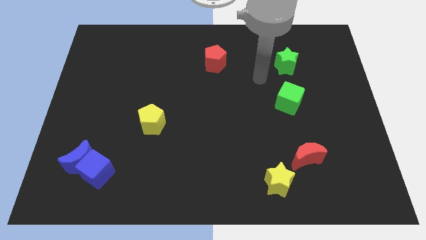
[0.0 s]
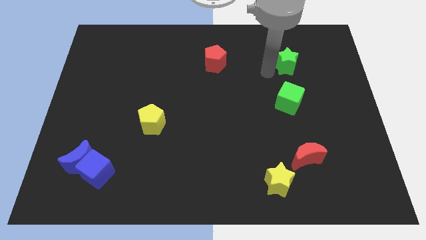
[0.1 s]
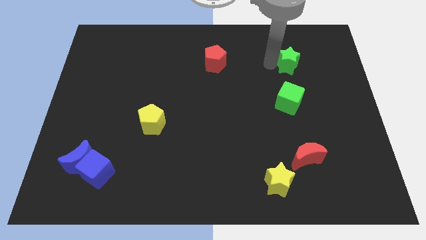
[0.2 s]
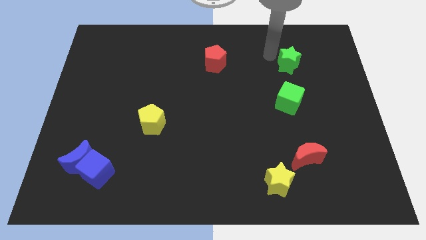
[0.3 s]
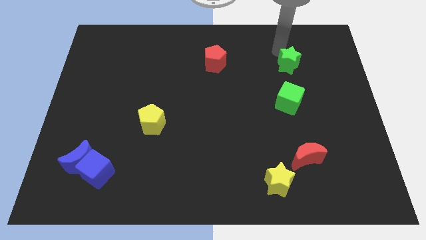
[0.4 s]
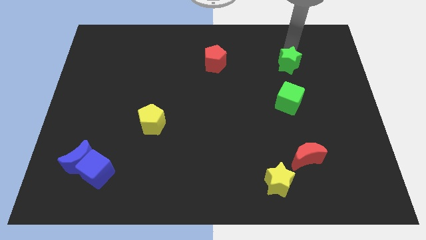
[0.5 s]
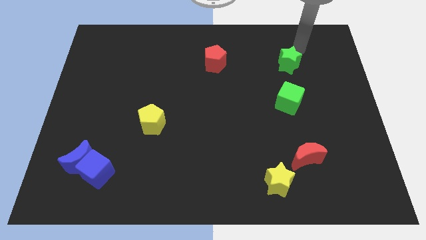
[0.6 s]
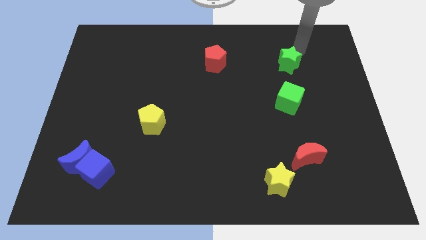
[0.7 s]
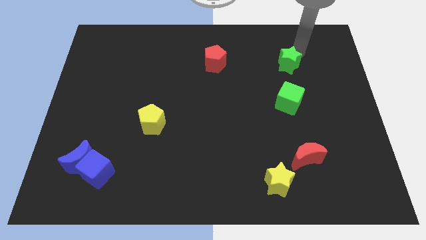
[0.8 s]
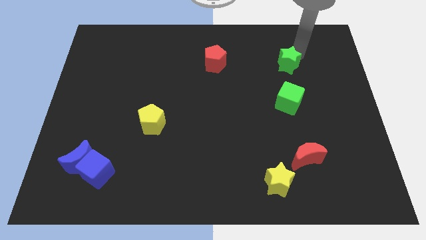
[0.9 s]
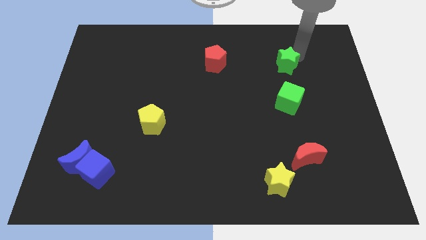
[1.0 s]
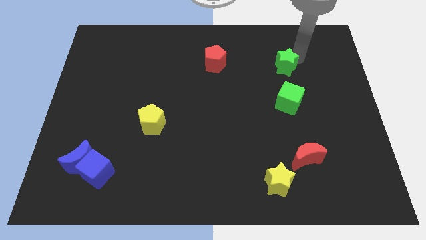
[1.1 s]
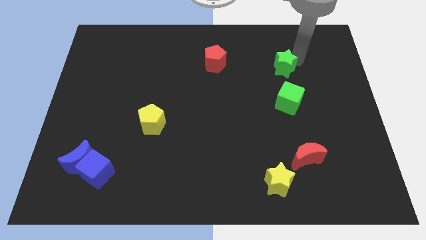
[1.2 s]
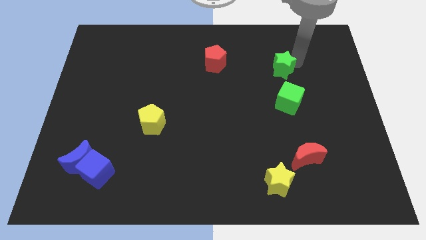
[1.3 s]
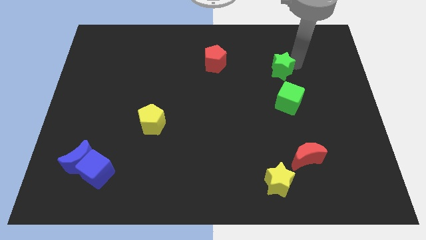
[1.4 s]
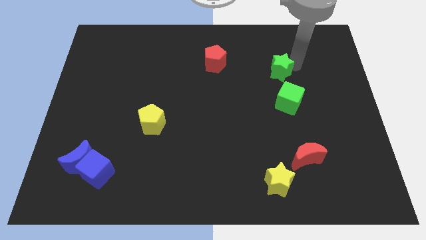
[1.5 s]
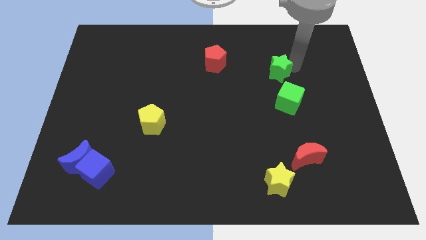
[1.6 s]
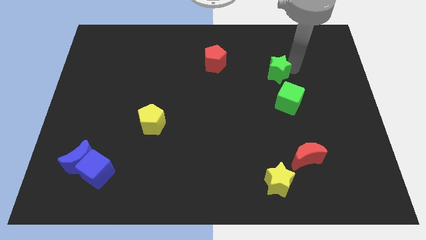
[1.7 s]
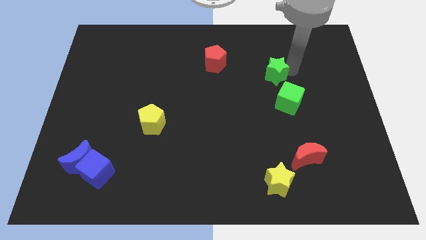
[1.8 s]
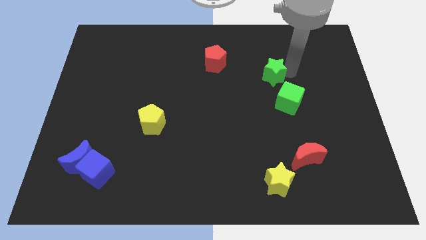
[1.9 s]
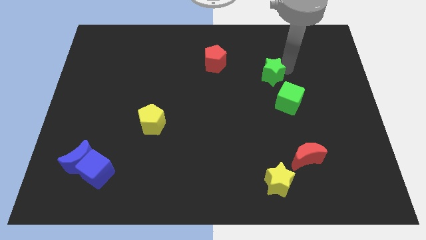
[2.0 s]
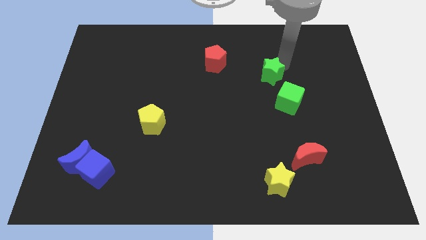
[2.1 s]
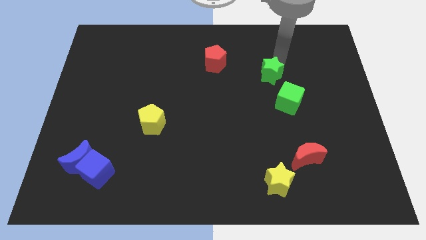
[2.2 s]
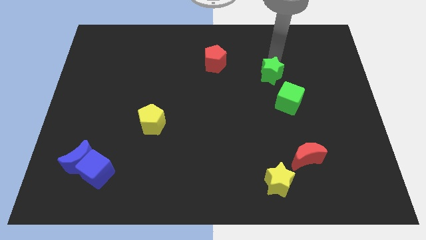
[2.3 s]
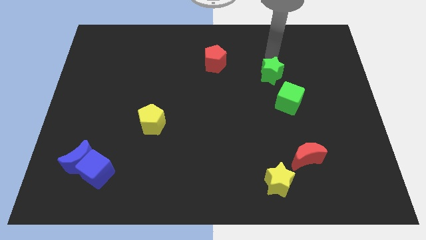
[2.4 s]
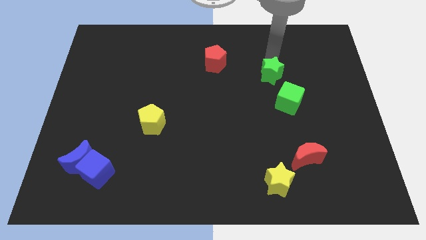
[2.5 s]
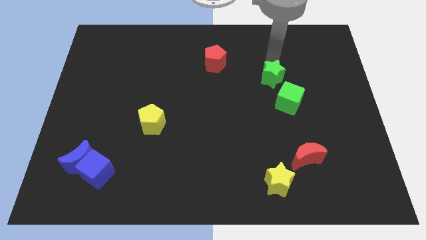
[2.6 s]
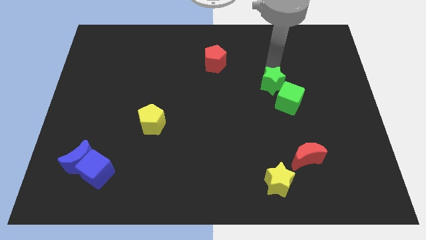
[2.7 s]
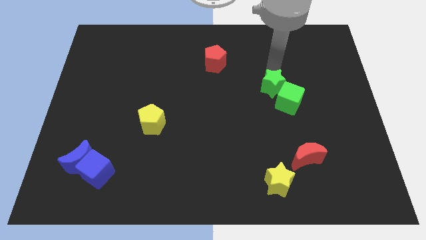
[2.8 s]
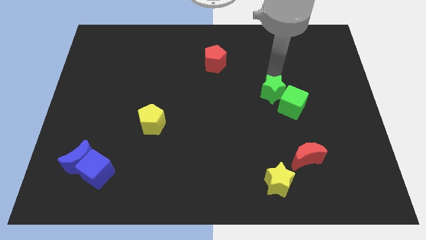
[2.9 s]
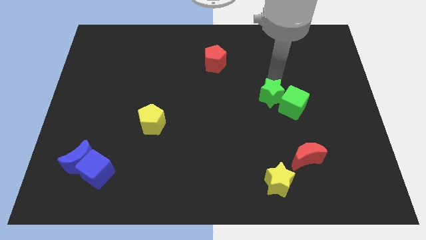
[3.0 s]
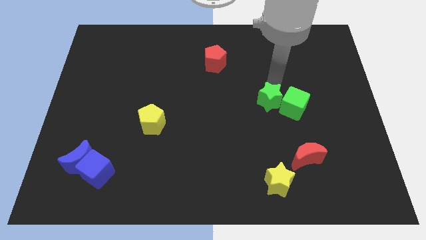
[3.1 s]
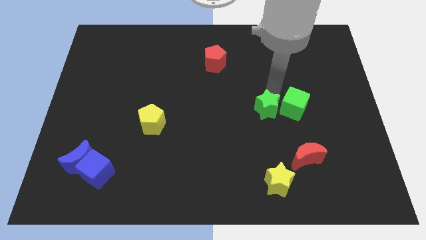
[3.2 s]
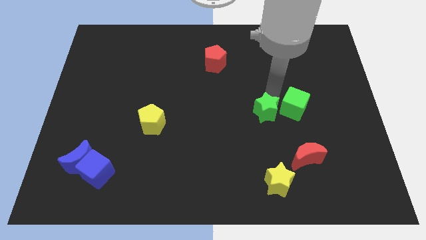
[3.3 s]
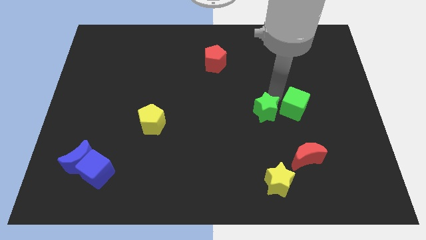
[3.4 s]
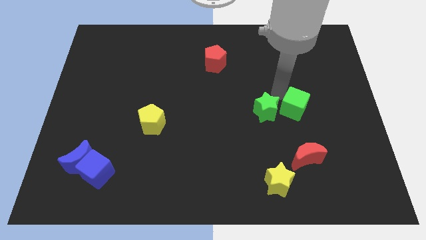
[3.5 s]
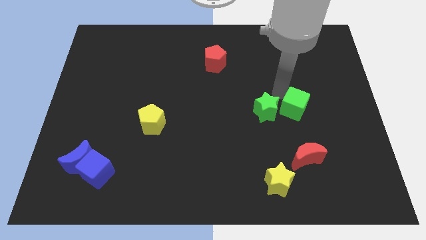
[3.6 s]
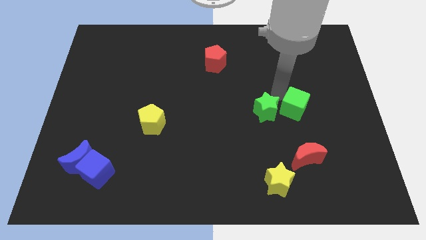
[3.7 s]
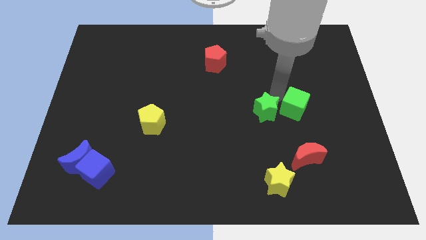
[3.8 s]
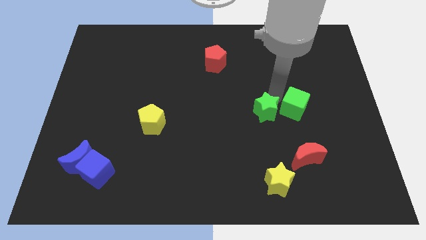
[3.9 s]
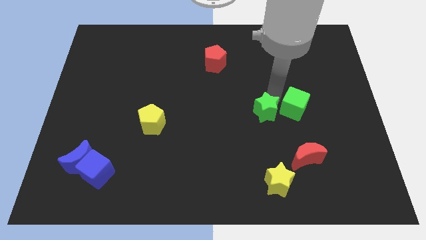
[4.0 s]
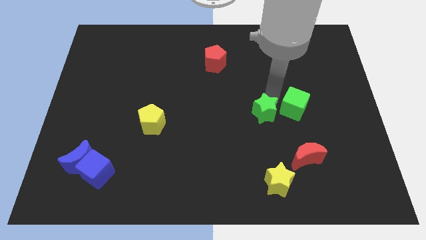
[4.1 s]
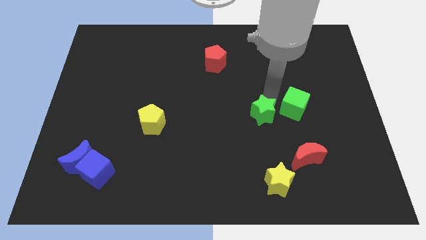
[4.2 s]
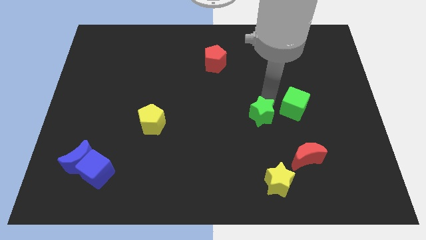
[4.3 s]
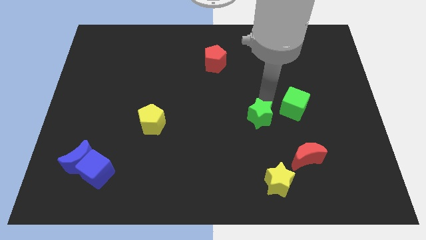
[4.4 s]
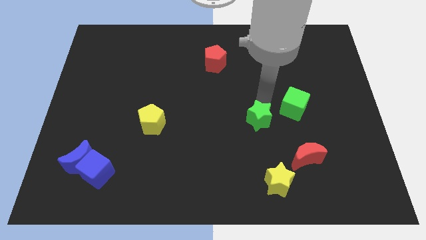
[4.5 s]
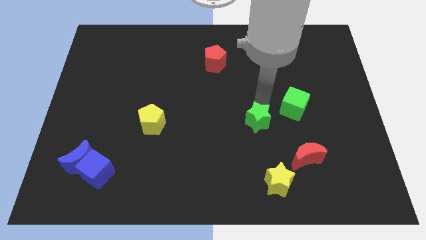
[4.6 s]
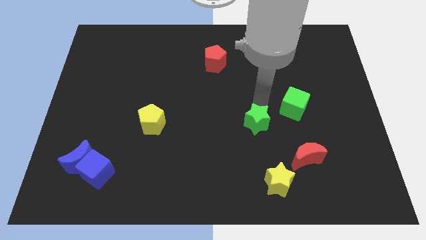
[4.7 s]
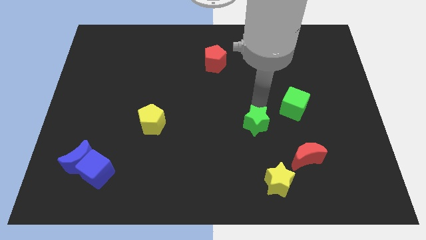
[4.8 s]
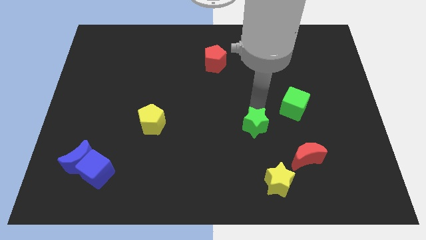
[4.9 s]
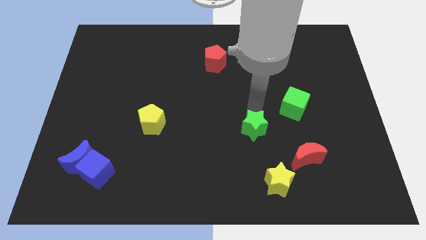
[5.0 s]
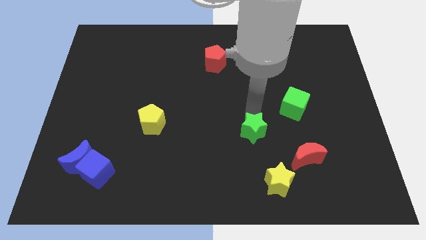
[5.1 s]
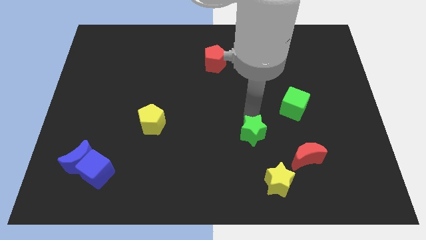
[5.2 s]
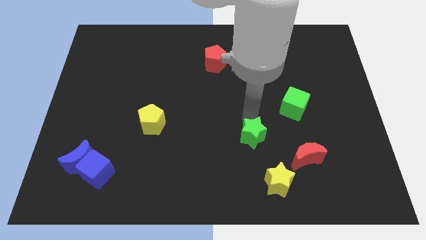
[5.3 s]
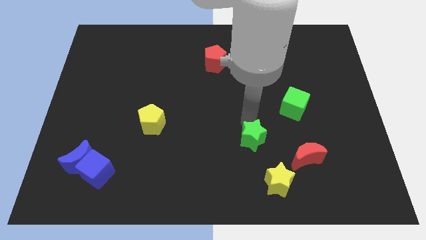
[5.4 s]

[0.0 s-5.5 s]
slide the green star just left of the red moon

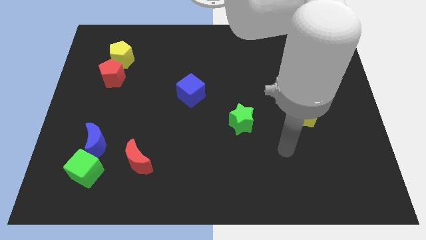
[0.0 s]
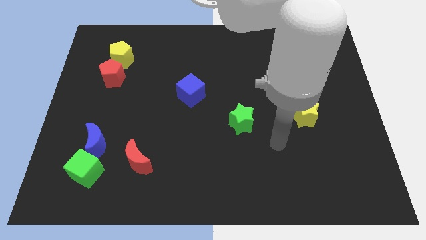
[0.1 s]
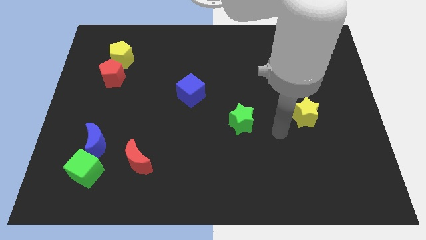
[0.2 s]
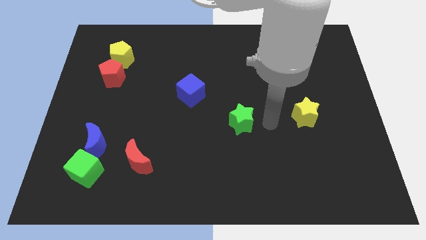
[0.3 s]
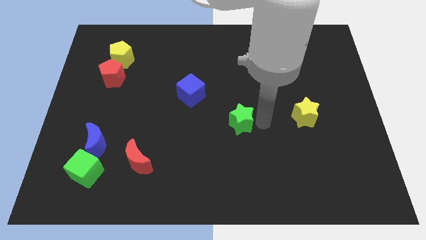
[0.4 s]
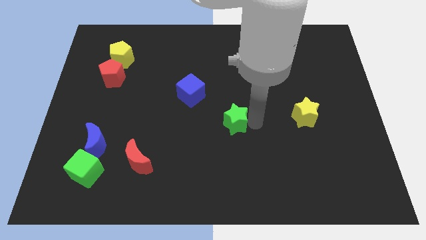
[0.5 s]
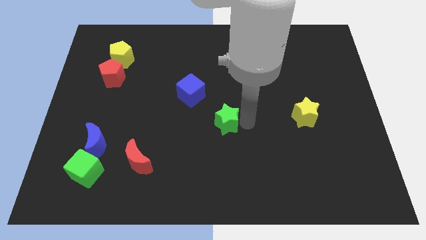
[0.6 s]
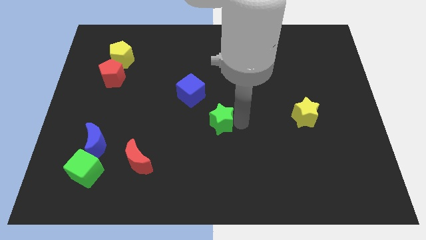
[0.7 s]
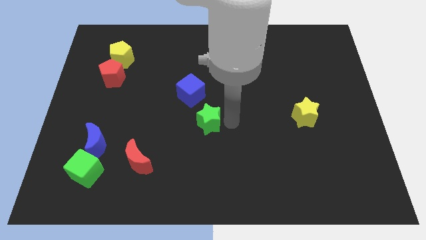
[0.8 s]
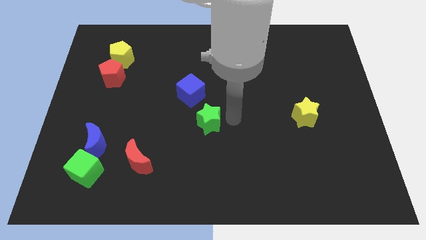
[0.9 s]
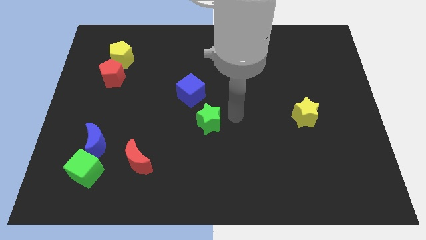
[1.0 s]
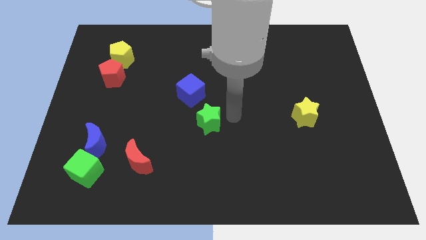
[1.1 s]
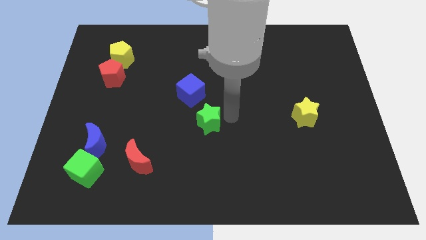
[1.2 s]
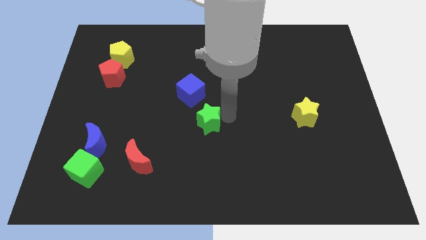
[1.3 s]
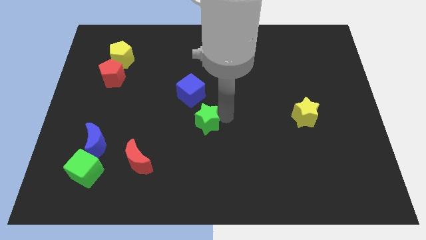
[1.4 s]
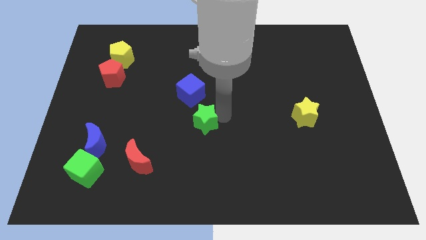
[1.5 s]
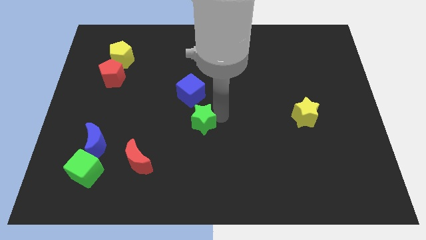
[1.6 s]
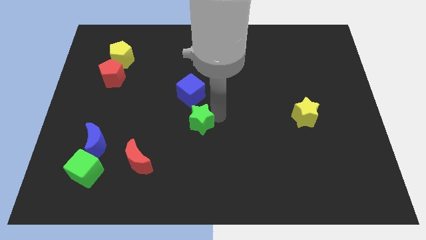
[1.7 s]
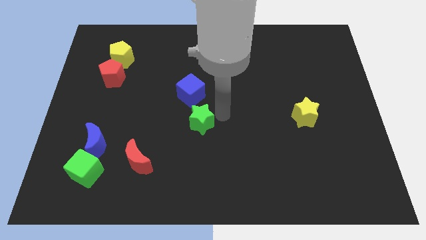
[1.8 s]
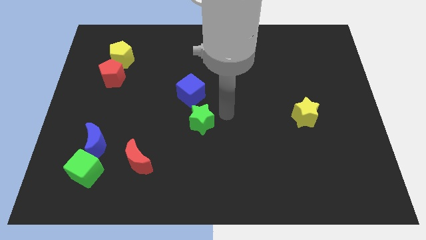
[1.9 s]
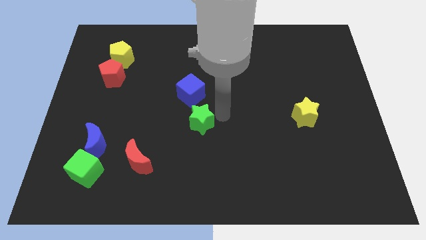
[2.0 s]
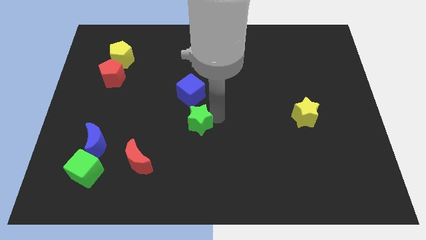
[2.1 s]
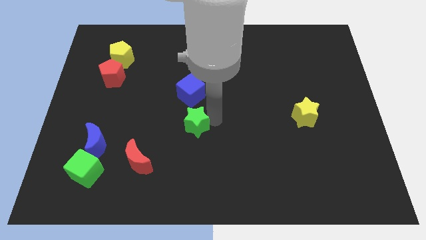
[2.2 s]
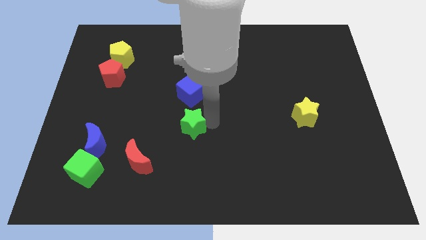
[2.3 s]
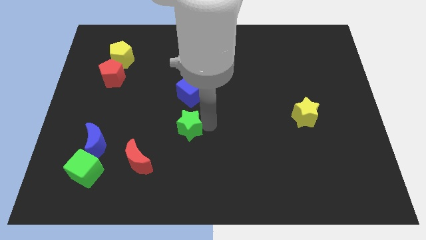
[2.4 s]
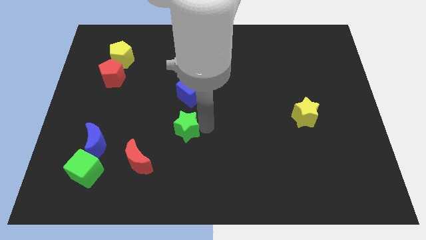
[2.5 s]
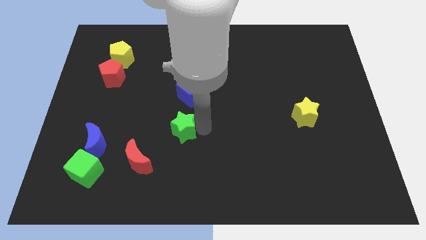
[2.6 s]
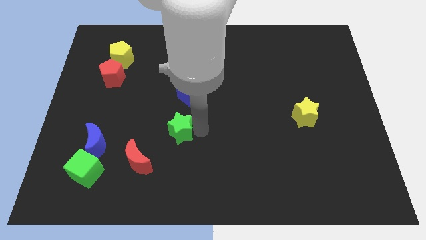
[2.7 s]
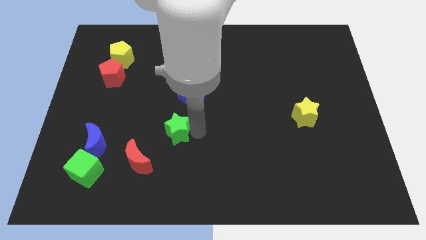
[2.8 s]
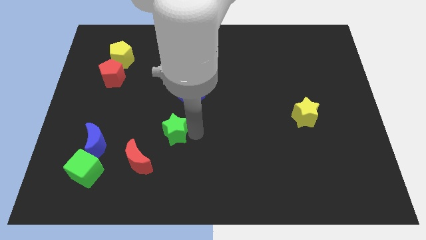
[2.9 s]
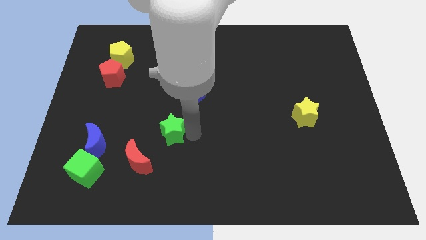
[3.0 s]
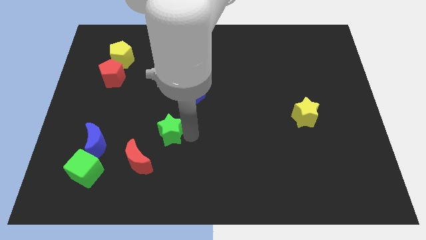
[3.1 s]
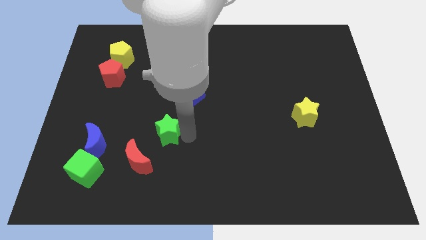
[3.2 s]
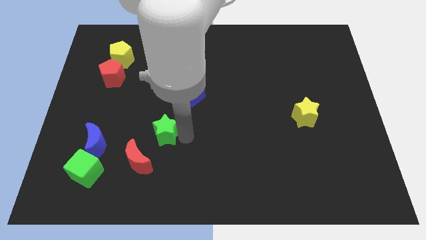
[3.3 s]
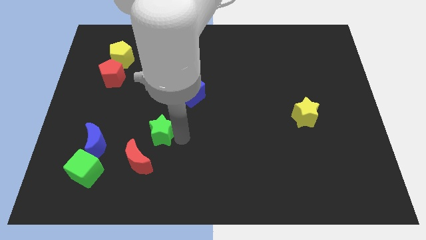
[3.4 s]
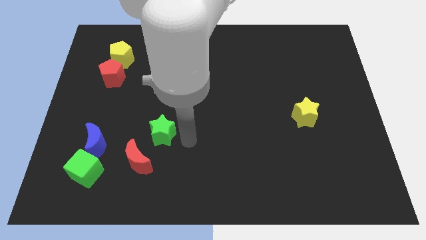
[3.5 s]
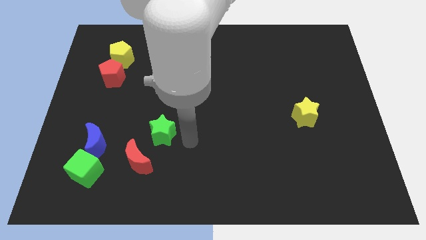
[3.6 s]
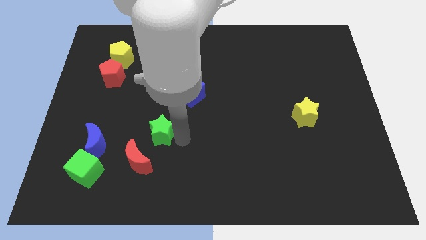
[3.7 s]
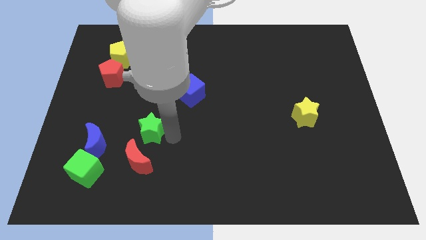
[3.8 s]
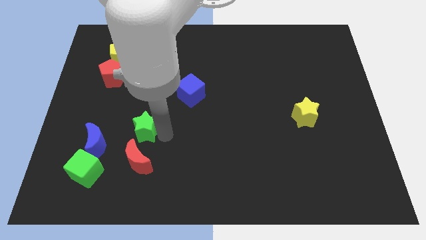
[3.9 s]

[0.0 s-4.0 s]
move the green star to the top right side of the blue moon
